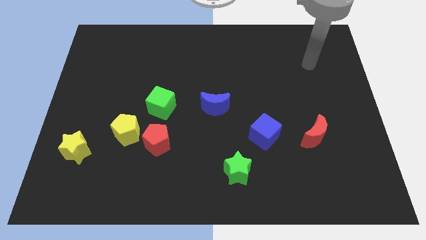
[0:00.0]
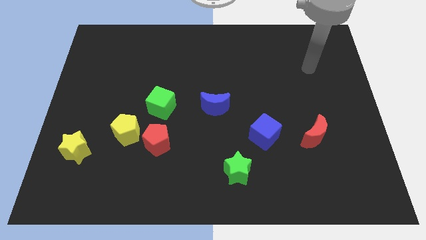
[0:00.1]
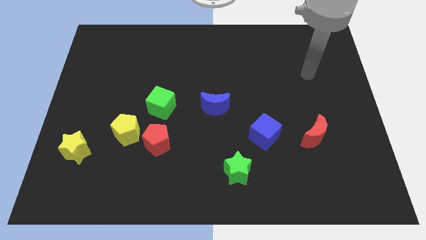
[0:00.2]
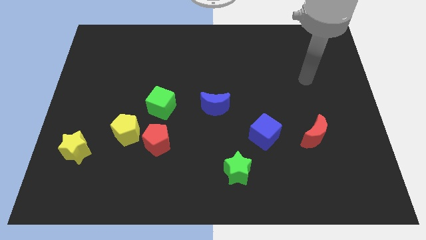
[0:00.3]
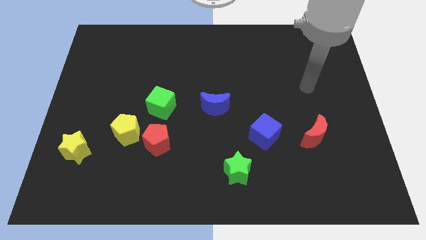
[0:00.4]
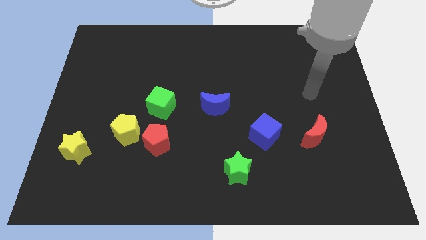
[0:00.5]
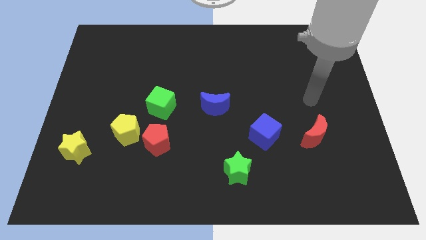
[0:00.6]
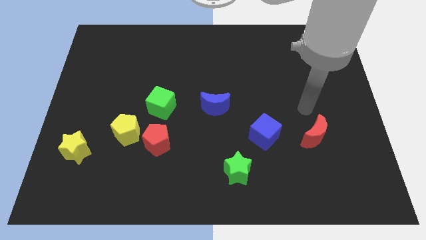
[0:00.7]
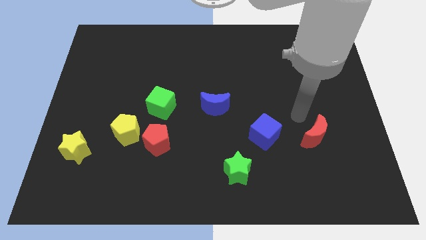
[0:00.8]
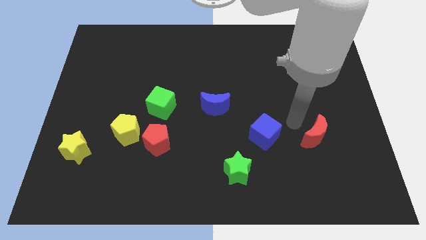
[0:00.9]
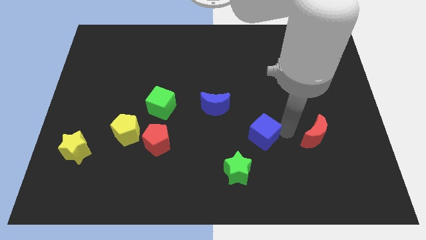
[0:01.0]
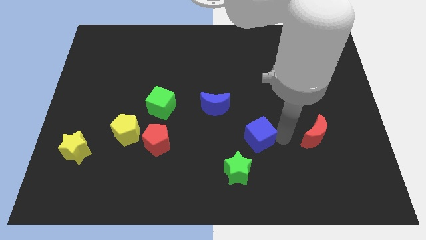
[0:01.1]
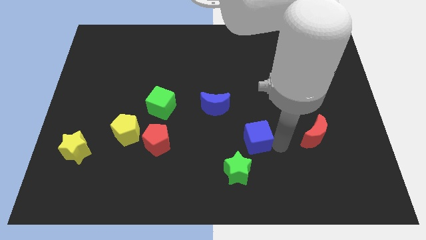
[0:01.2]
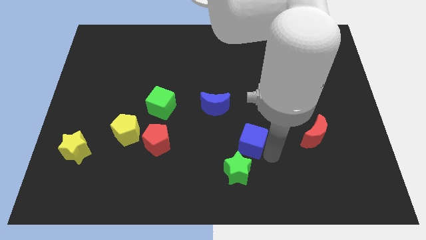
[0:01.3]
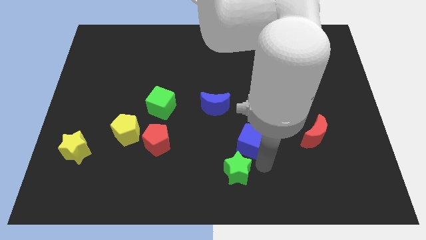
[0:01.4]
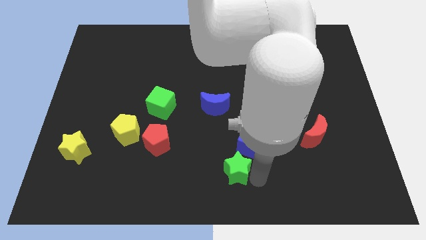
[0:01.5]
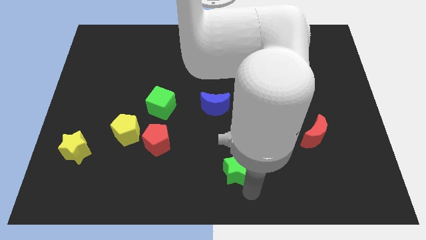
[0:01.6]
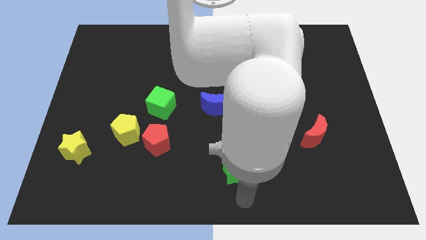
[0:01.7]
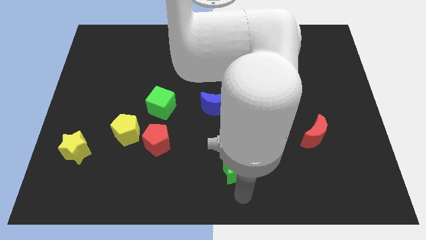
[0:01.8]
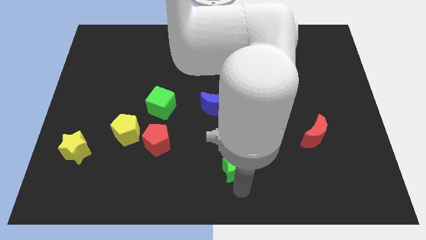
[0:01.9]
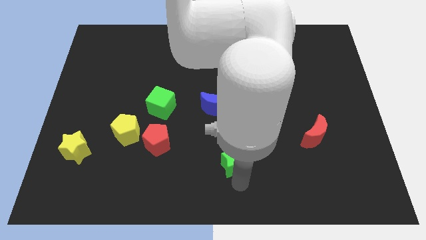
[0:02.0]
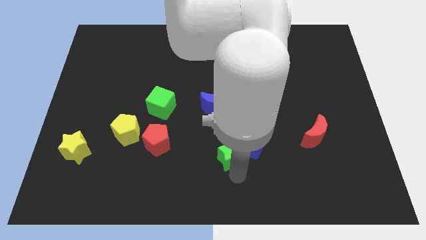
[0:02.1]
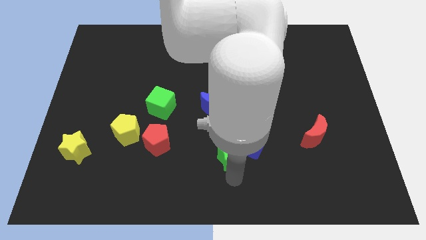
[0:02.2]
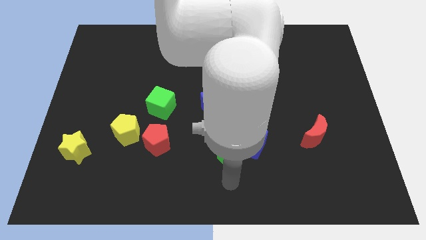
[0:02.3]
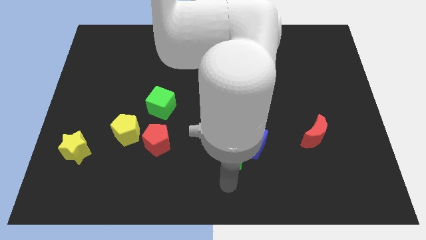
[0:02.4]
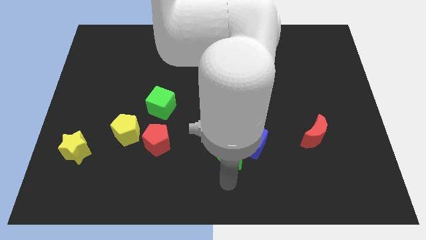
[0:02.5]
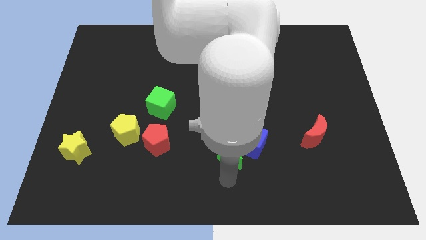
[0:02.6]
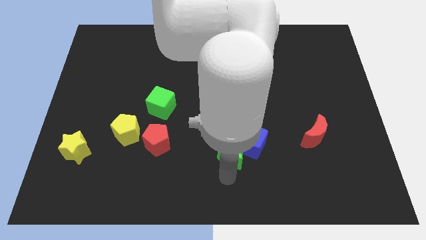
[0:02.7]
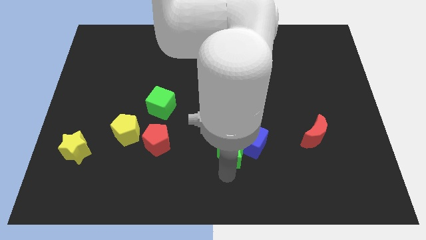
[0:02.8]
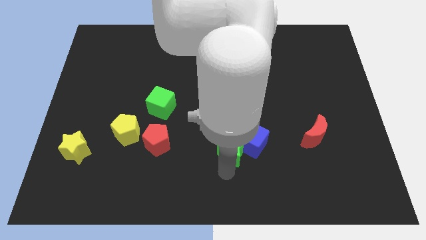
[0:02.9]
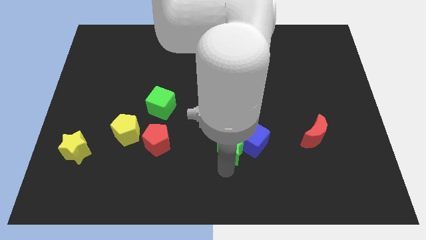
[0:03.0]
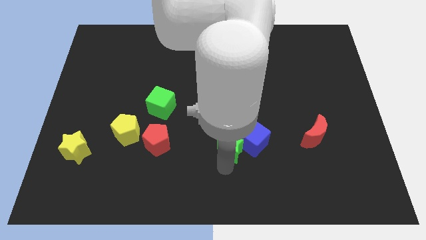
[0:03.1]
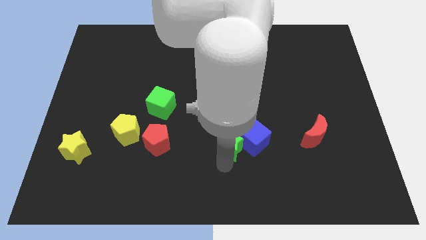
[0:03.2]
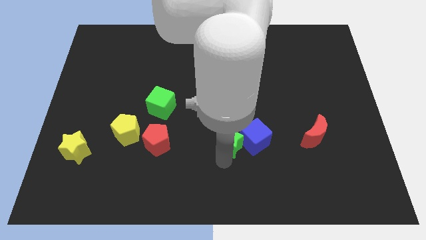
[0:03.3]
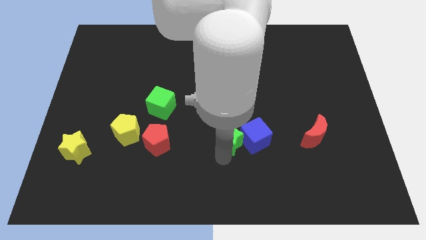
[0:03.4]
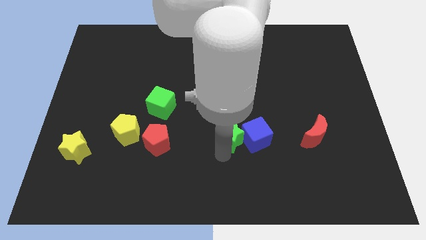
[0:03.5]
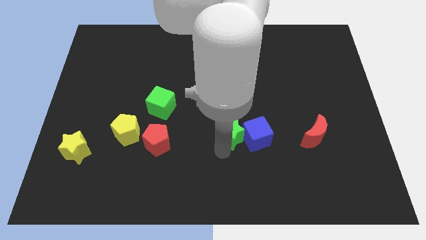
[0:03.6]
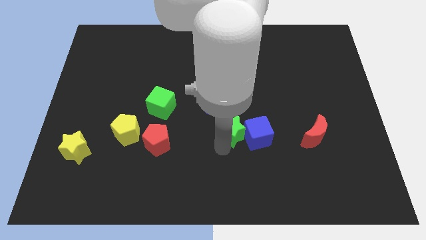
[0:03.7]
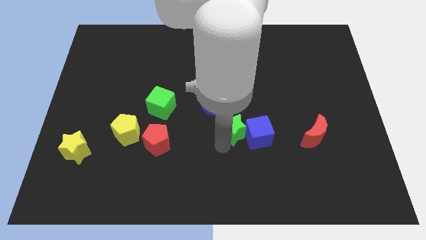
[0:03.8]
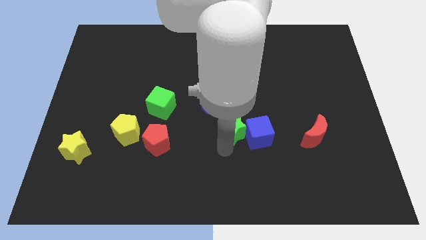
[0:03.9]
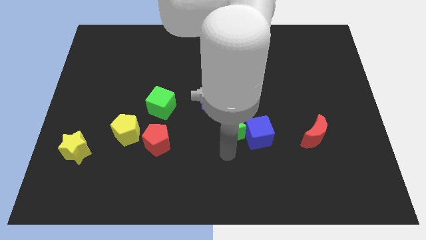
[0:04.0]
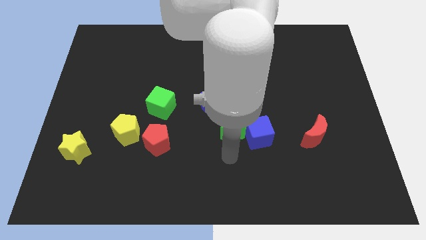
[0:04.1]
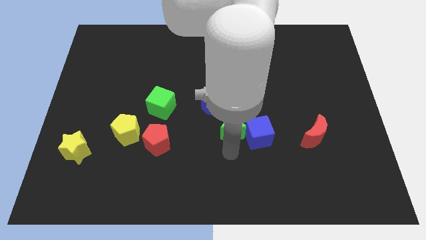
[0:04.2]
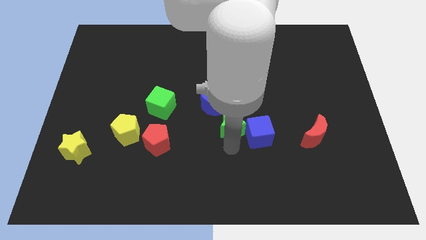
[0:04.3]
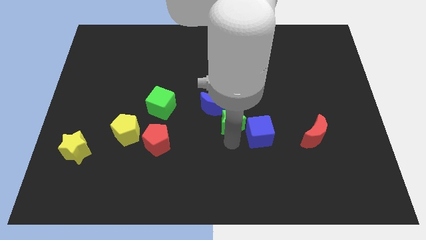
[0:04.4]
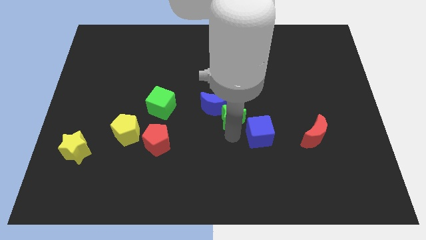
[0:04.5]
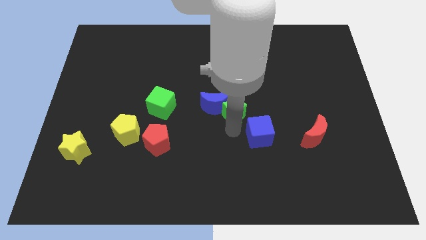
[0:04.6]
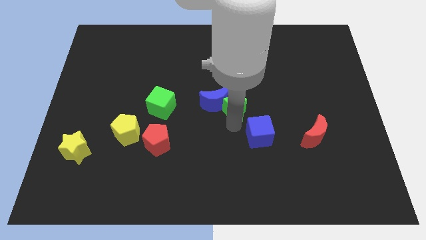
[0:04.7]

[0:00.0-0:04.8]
slide the green star diagonally up and to the right of the blue moon

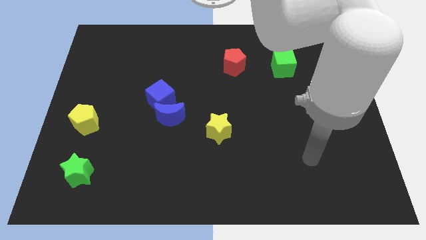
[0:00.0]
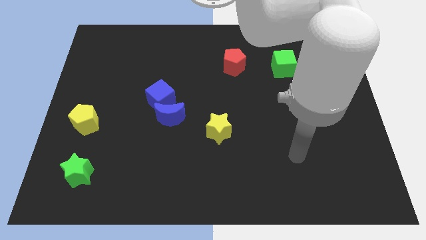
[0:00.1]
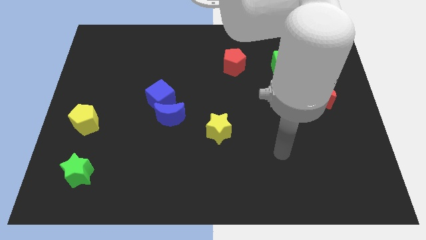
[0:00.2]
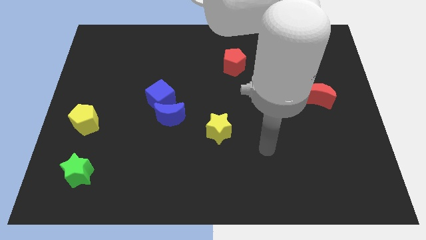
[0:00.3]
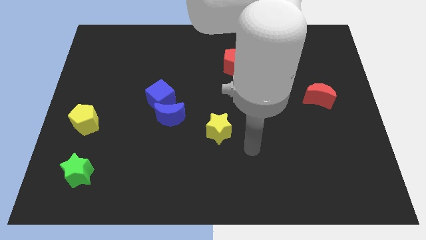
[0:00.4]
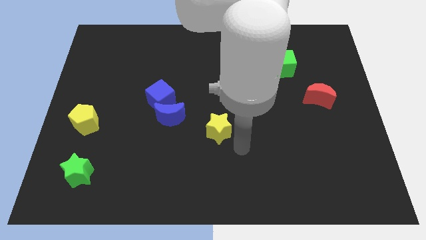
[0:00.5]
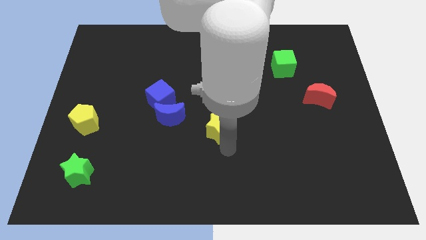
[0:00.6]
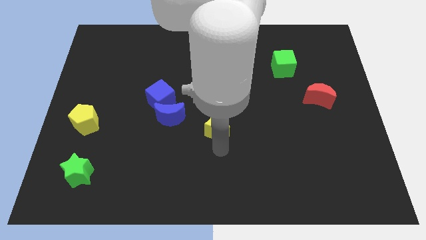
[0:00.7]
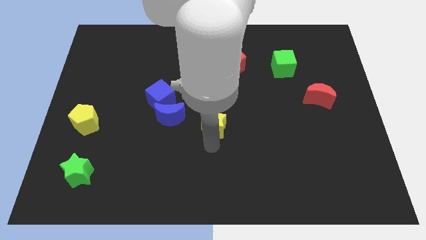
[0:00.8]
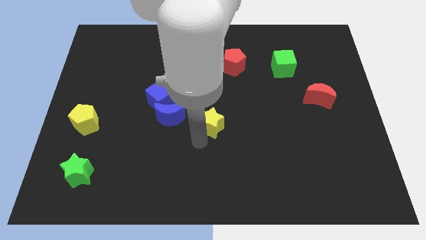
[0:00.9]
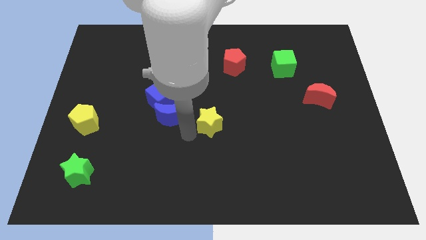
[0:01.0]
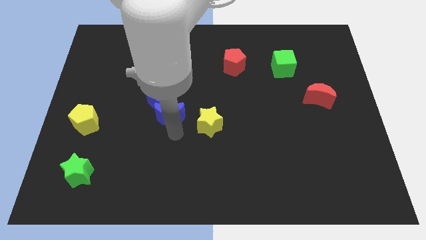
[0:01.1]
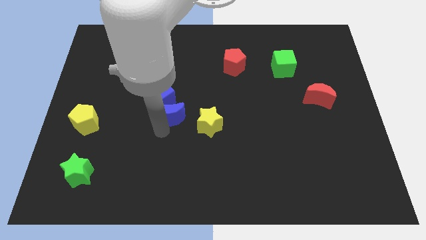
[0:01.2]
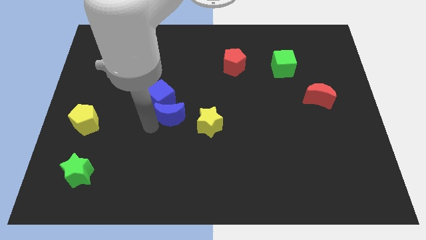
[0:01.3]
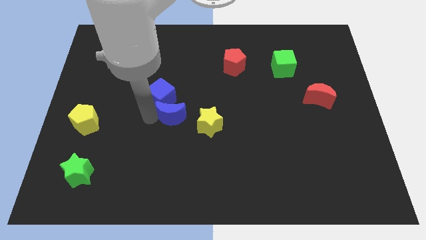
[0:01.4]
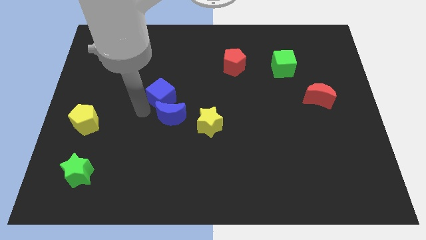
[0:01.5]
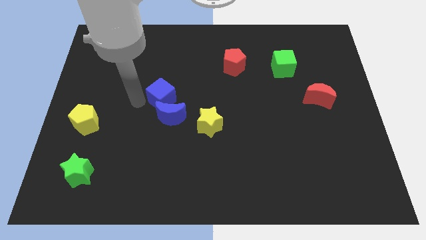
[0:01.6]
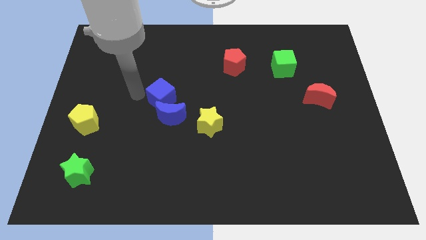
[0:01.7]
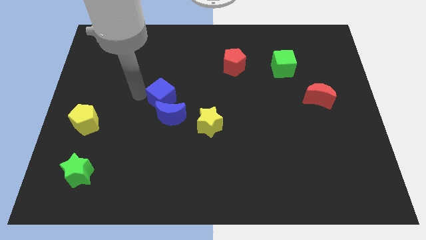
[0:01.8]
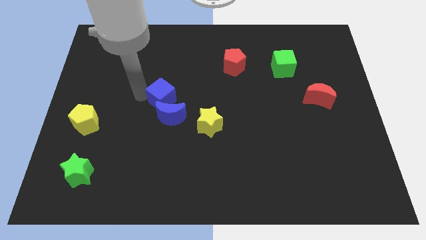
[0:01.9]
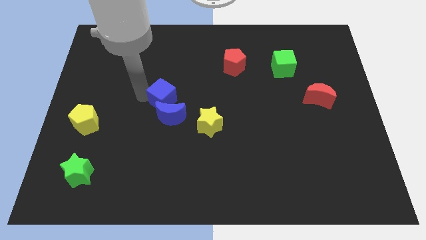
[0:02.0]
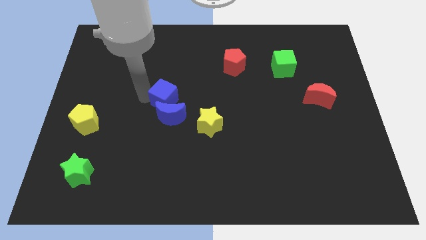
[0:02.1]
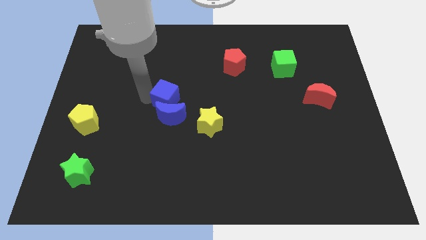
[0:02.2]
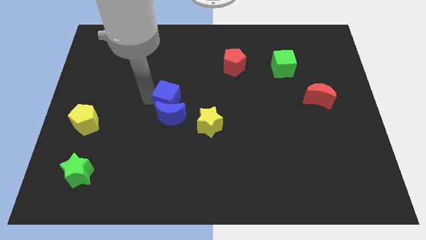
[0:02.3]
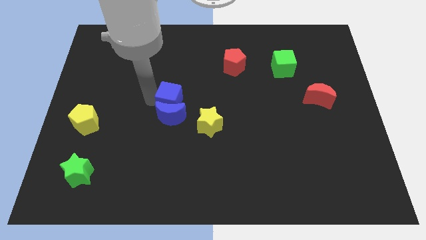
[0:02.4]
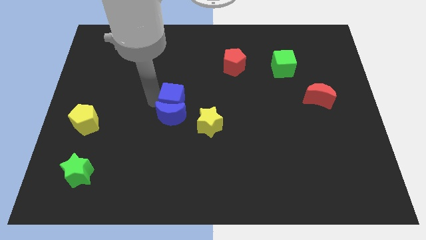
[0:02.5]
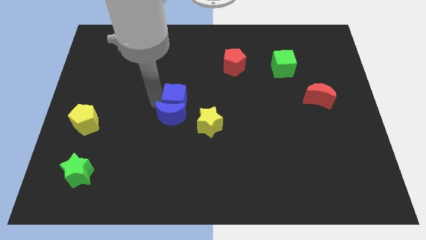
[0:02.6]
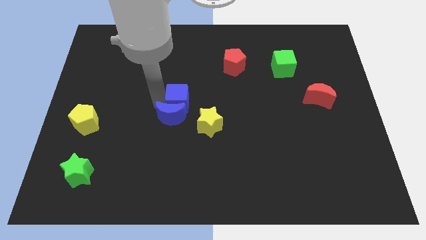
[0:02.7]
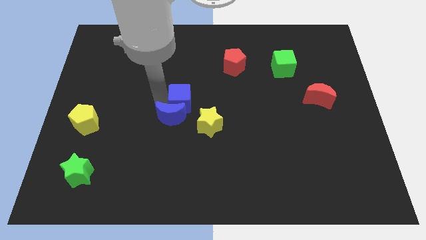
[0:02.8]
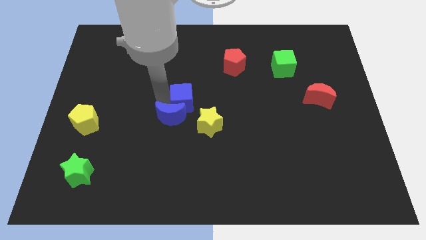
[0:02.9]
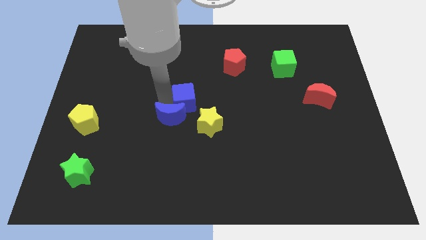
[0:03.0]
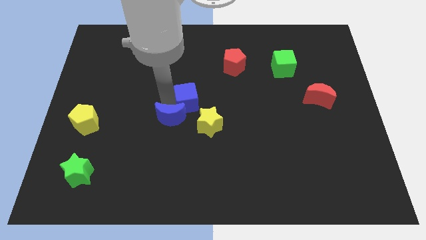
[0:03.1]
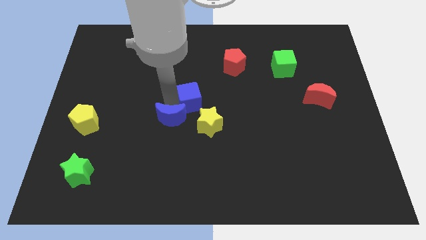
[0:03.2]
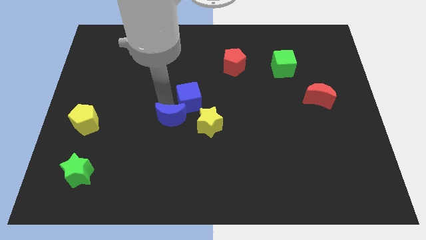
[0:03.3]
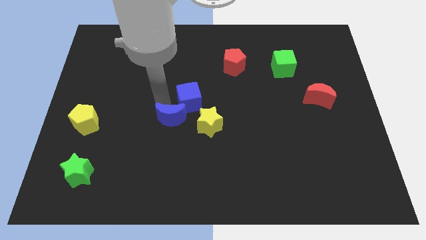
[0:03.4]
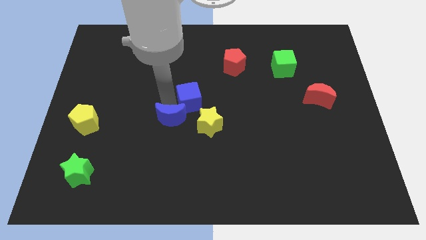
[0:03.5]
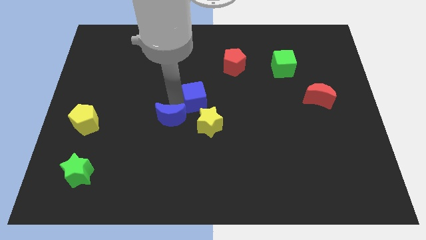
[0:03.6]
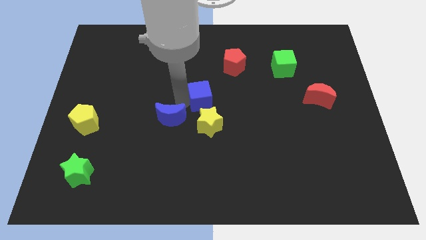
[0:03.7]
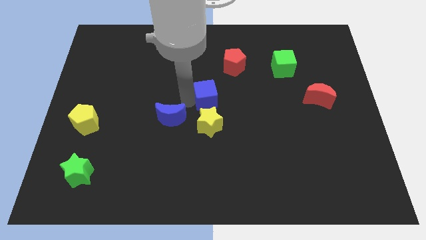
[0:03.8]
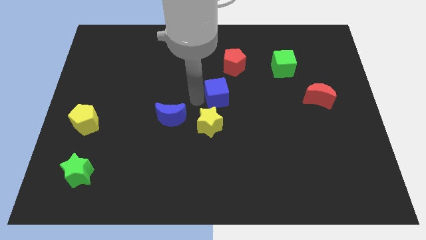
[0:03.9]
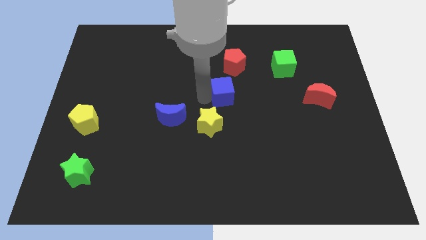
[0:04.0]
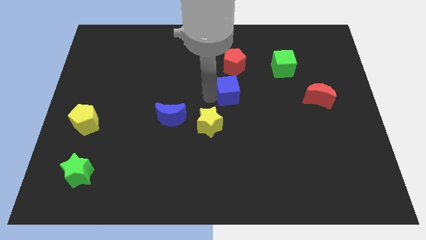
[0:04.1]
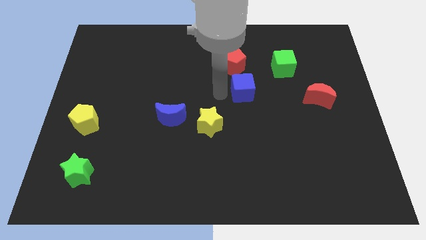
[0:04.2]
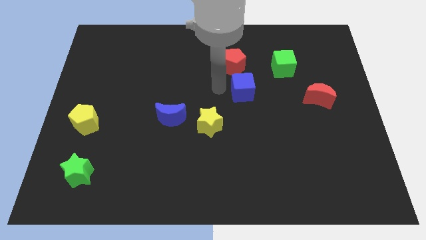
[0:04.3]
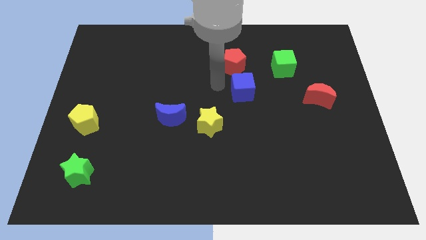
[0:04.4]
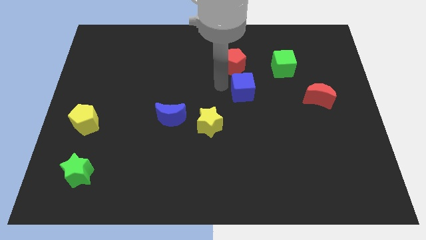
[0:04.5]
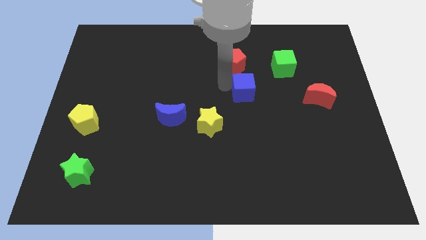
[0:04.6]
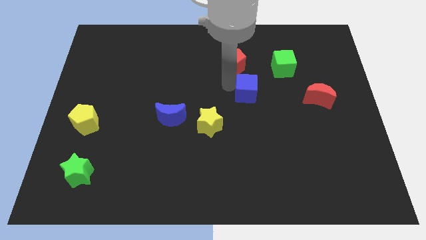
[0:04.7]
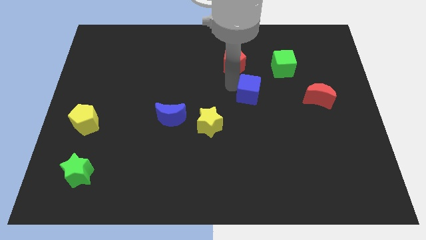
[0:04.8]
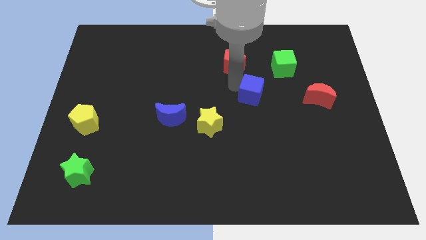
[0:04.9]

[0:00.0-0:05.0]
put the blue cube to the left side of the red moon
